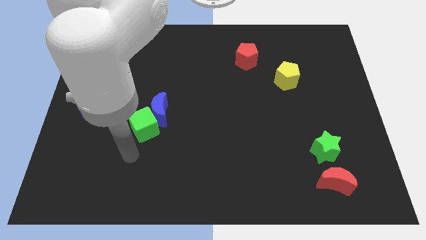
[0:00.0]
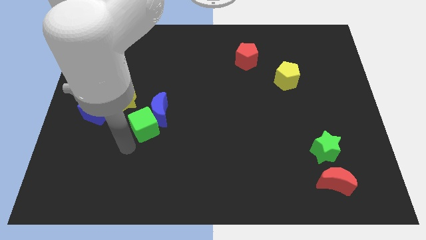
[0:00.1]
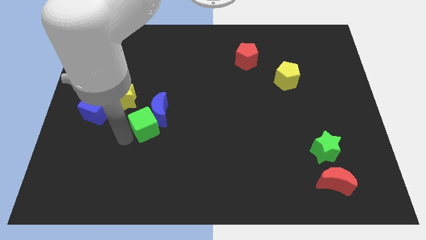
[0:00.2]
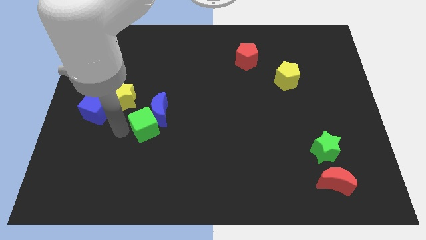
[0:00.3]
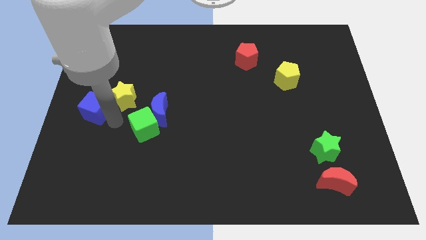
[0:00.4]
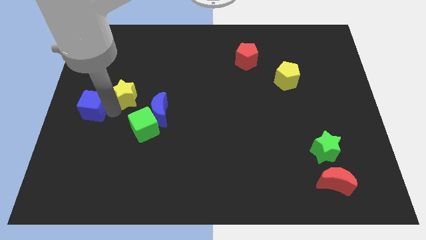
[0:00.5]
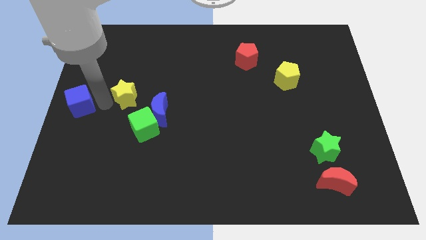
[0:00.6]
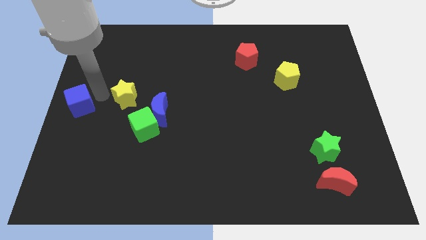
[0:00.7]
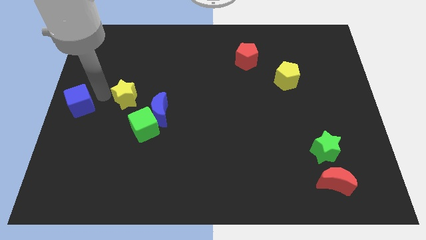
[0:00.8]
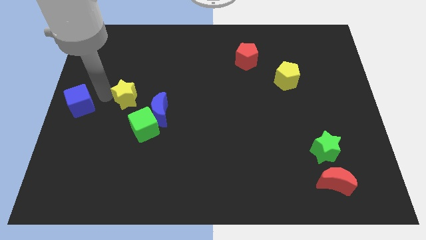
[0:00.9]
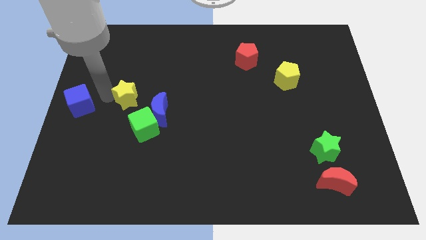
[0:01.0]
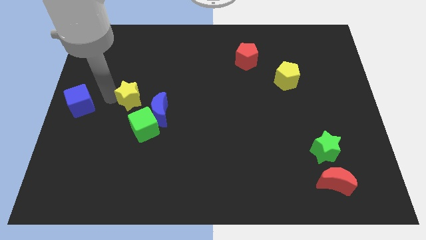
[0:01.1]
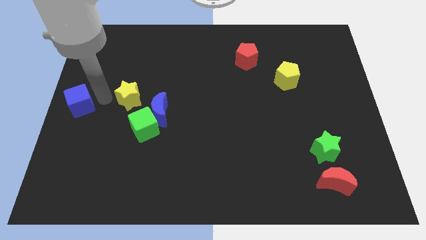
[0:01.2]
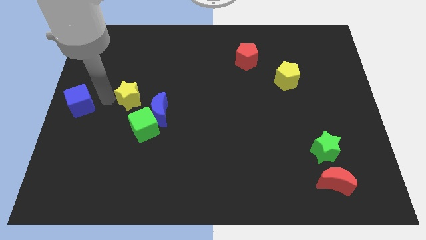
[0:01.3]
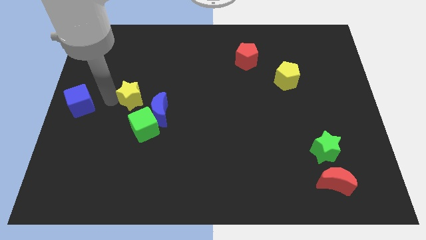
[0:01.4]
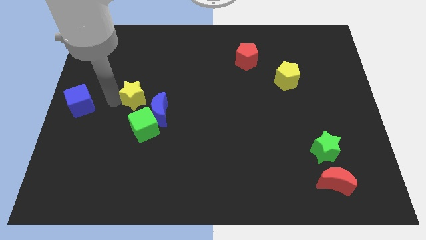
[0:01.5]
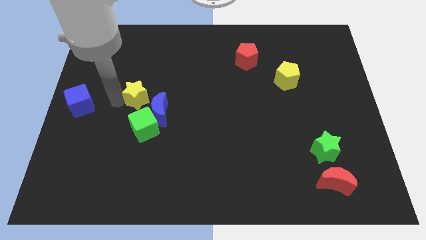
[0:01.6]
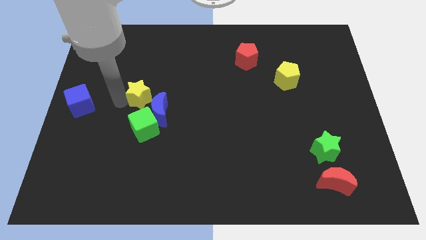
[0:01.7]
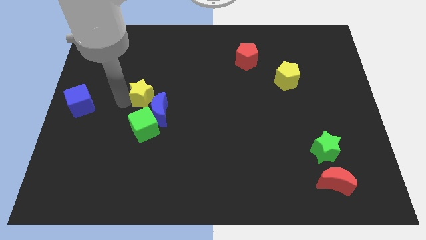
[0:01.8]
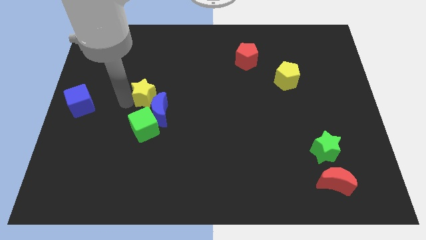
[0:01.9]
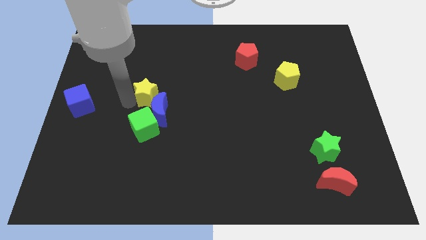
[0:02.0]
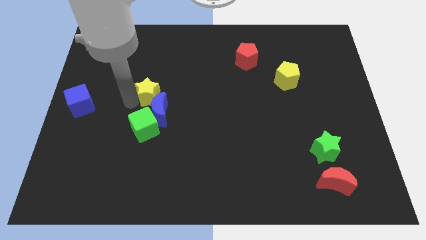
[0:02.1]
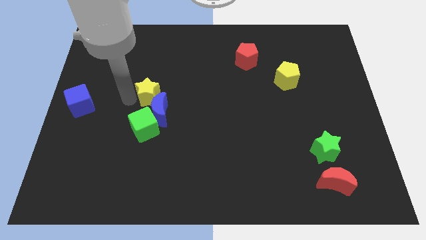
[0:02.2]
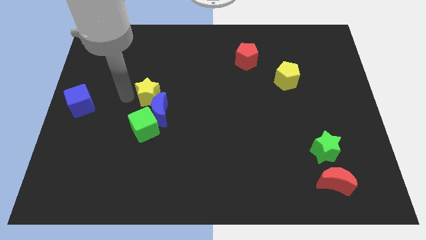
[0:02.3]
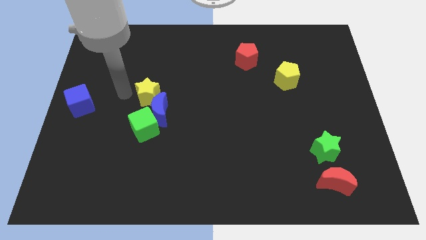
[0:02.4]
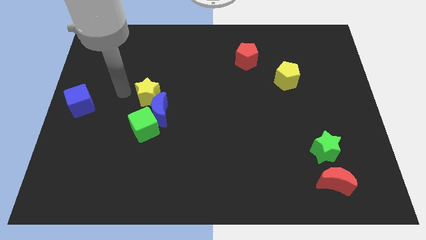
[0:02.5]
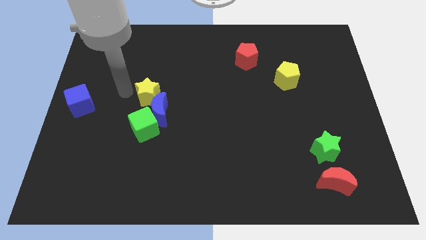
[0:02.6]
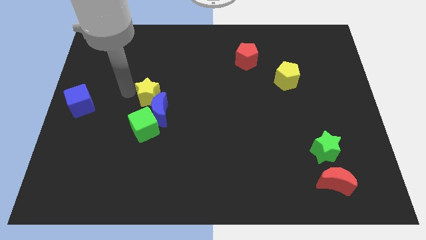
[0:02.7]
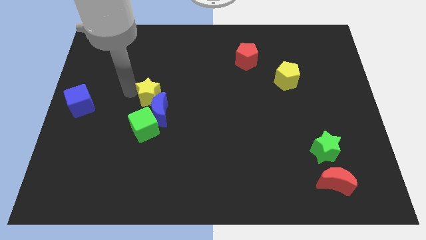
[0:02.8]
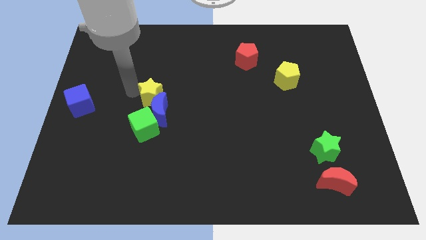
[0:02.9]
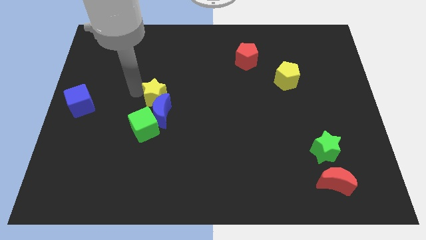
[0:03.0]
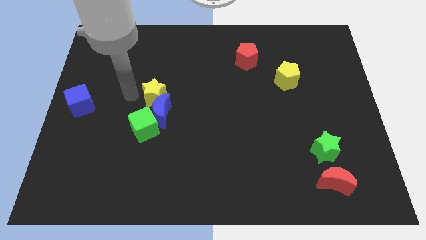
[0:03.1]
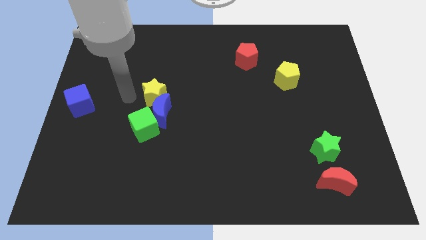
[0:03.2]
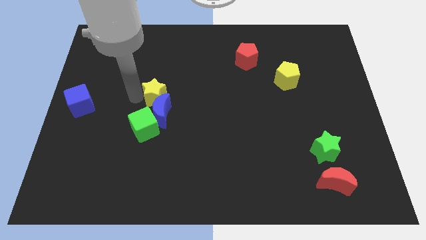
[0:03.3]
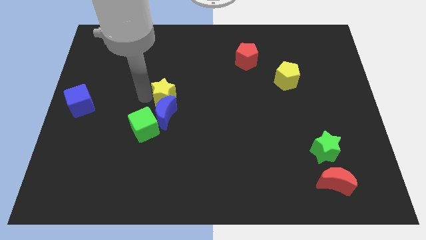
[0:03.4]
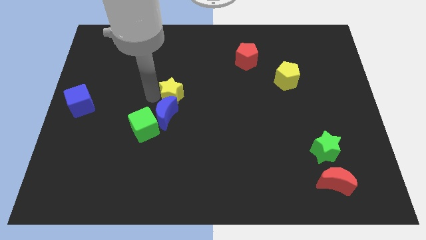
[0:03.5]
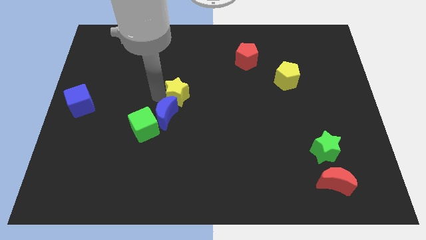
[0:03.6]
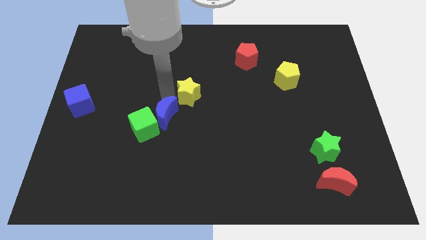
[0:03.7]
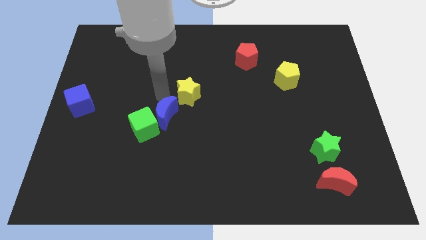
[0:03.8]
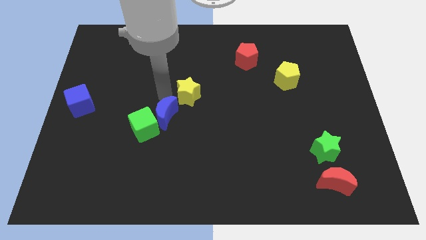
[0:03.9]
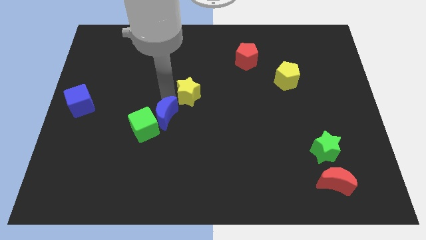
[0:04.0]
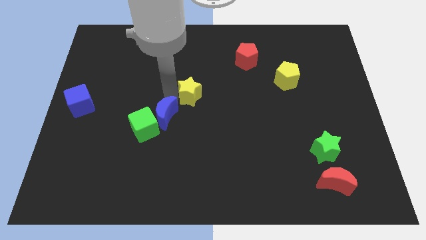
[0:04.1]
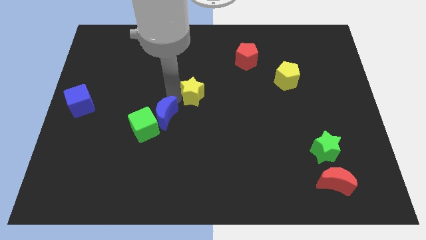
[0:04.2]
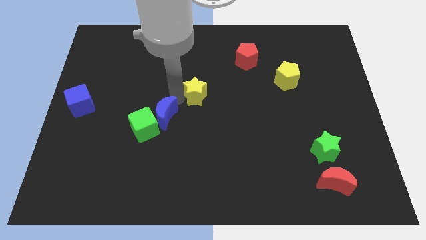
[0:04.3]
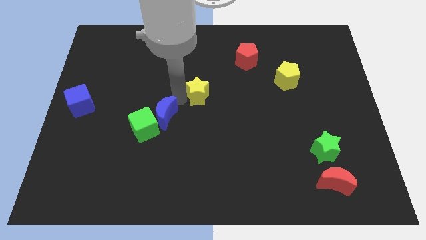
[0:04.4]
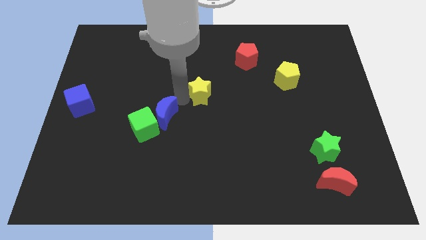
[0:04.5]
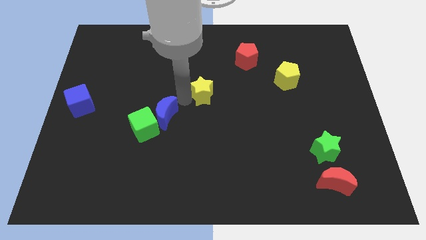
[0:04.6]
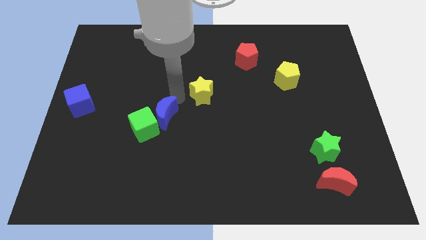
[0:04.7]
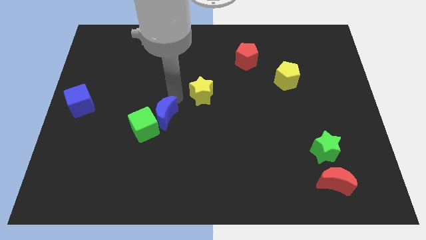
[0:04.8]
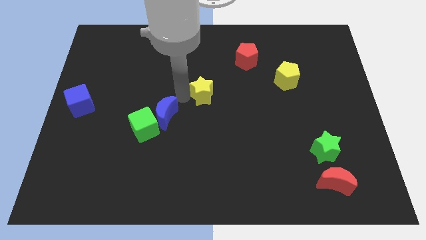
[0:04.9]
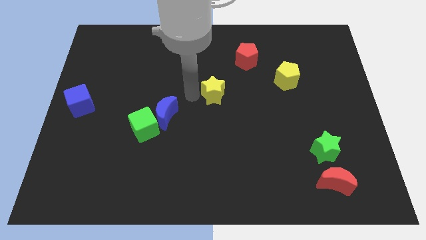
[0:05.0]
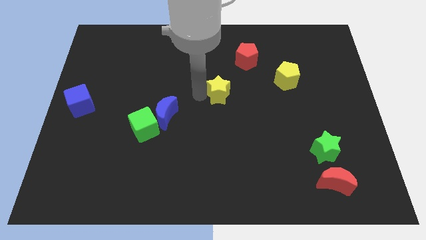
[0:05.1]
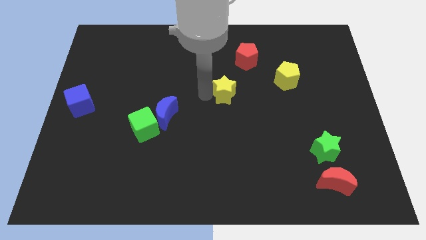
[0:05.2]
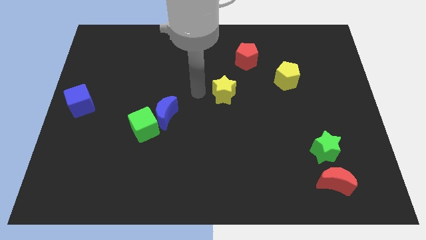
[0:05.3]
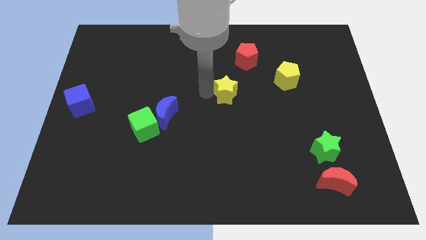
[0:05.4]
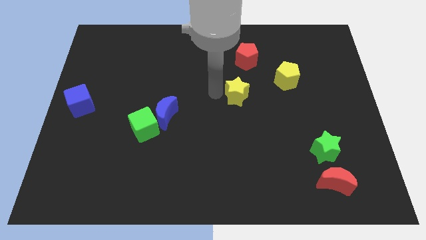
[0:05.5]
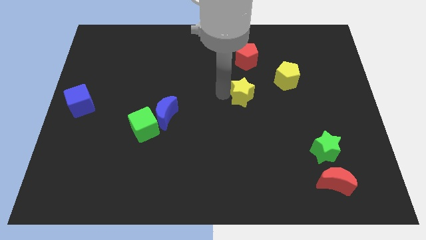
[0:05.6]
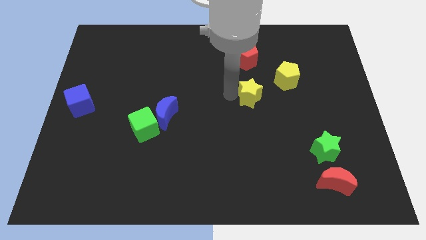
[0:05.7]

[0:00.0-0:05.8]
move the yellow star diagonally down and to the left of the yellow pentagon

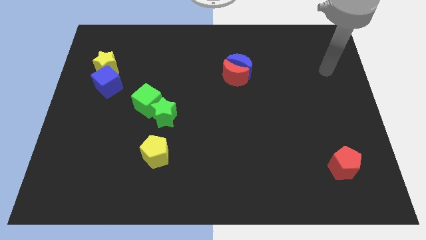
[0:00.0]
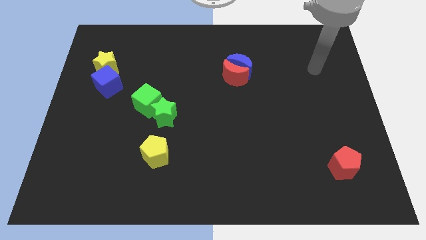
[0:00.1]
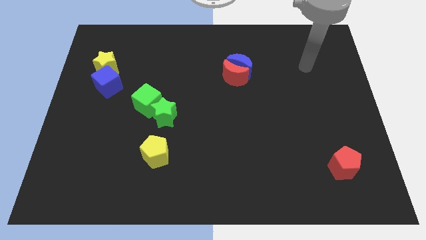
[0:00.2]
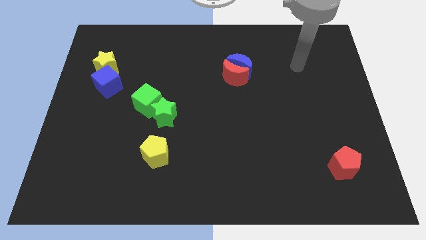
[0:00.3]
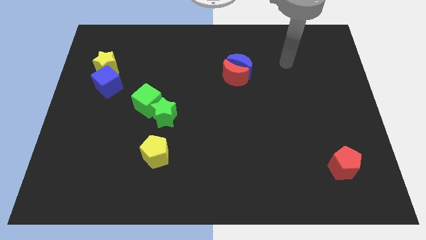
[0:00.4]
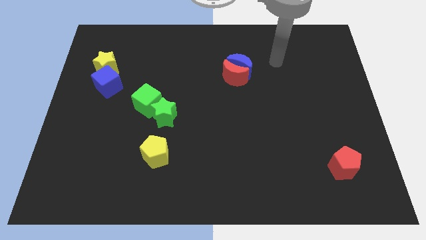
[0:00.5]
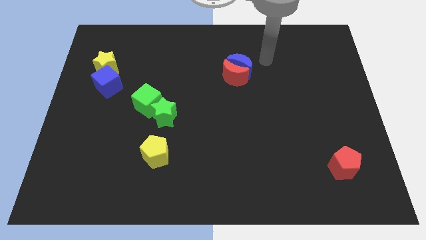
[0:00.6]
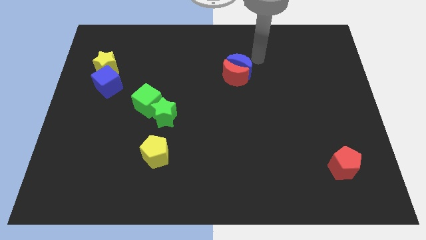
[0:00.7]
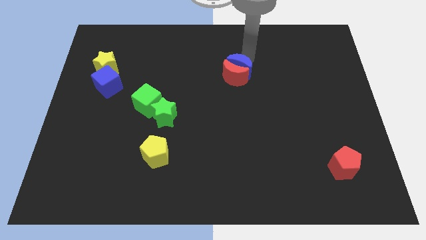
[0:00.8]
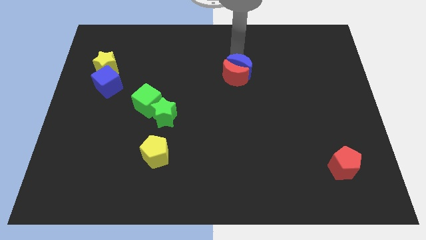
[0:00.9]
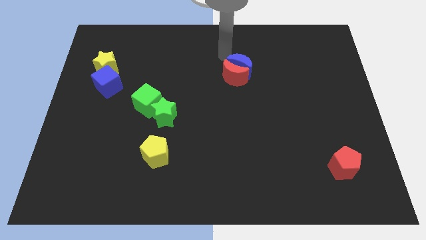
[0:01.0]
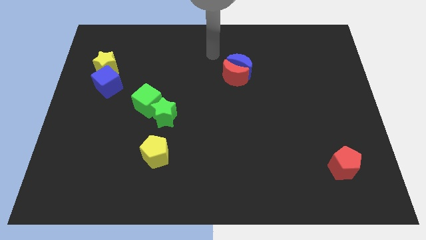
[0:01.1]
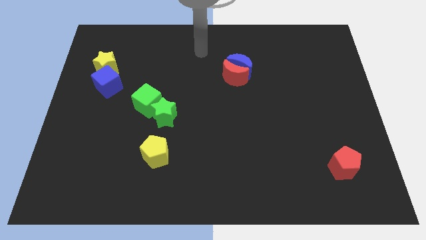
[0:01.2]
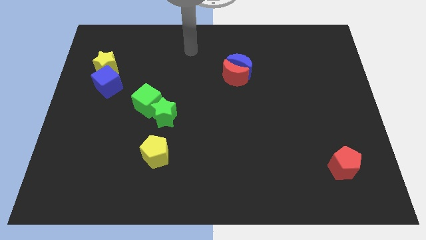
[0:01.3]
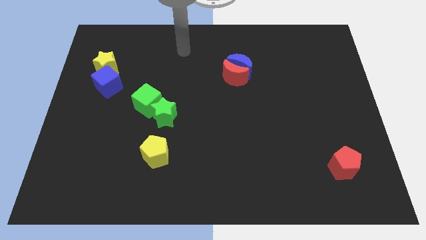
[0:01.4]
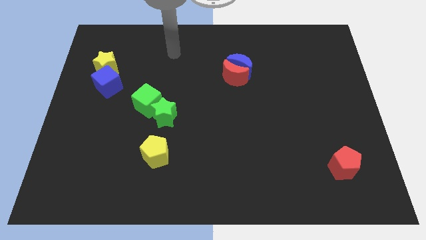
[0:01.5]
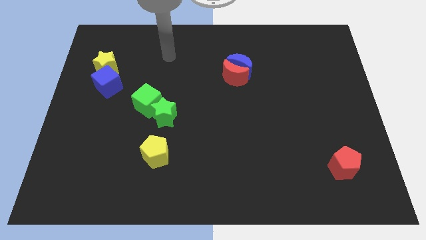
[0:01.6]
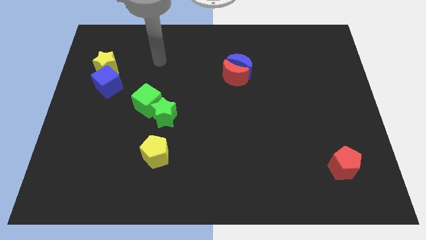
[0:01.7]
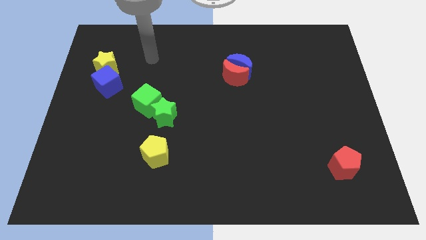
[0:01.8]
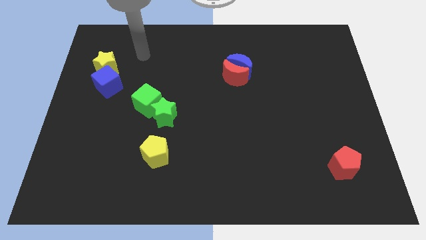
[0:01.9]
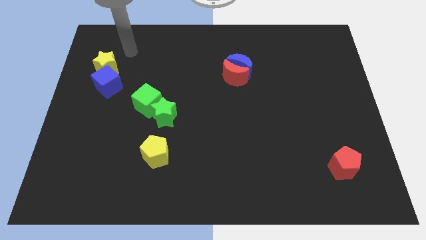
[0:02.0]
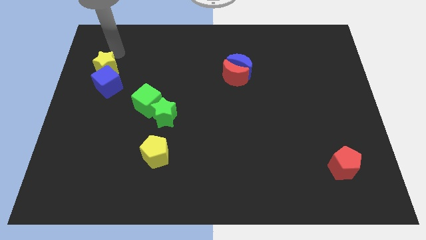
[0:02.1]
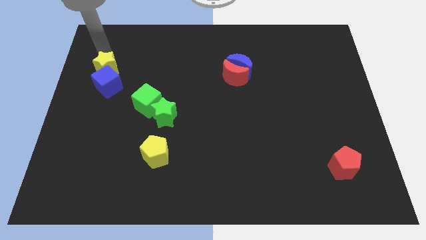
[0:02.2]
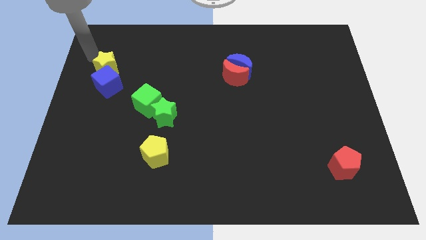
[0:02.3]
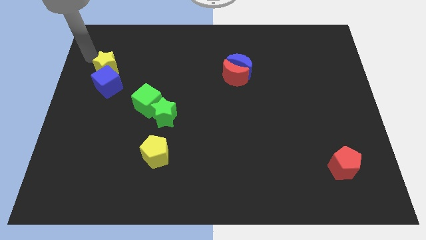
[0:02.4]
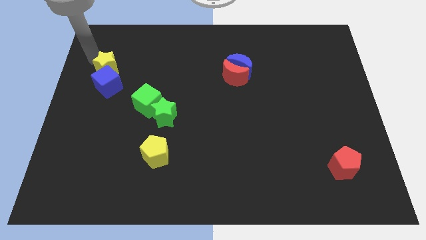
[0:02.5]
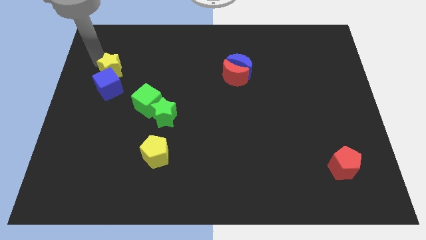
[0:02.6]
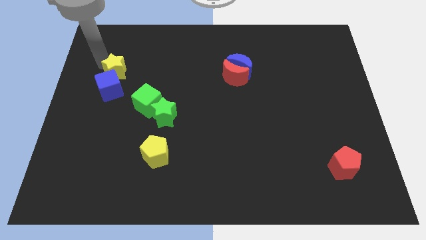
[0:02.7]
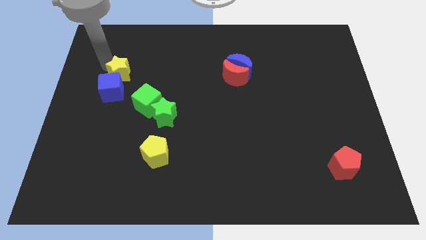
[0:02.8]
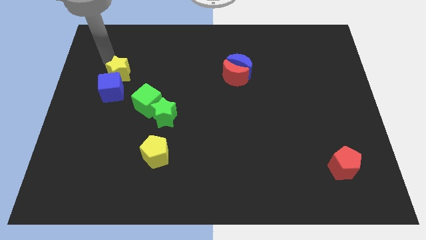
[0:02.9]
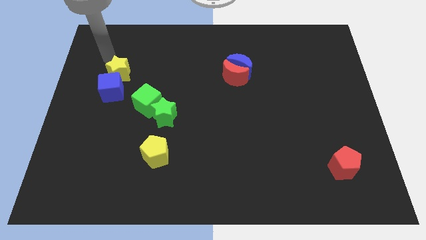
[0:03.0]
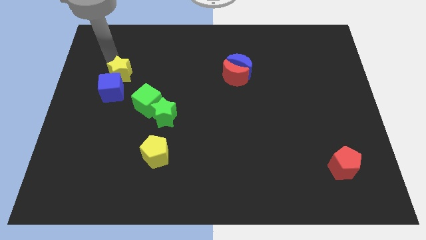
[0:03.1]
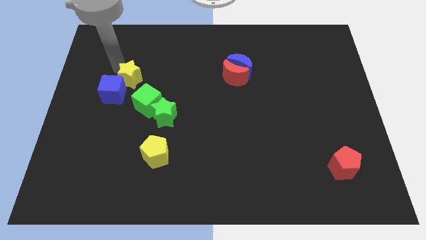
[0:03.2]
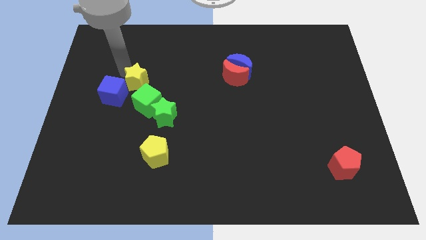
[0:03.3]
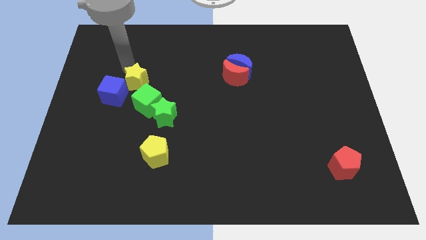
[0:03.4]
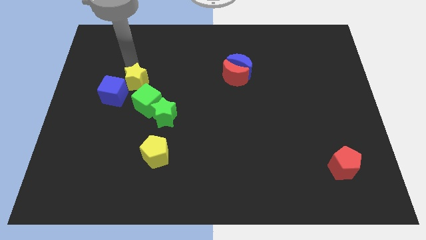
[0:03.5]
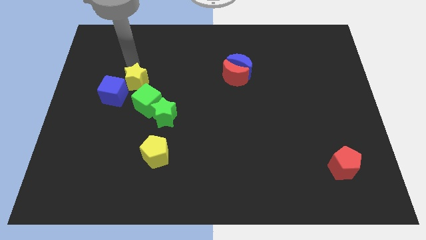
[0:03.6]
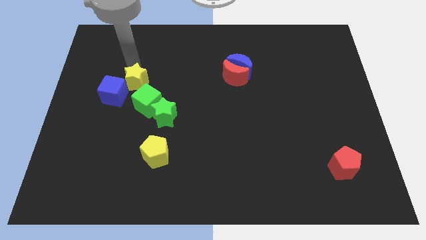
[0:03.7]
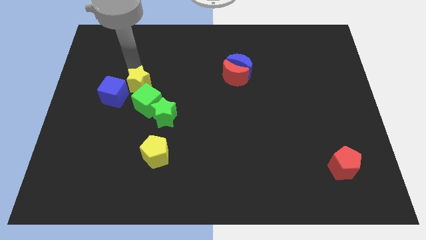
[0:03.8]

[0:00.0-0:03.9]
push the yellow star to the top left of the green star
